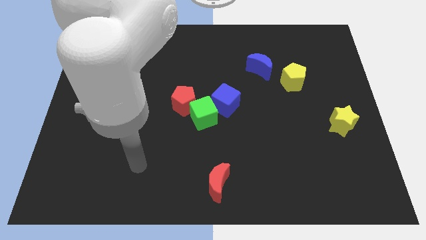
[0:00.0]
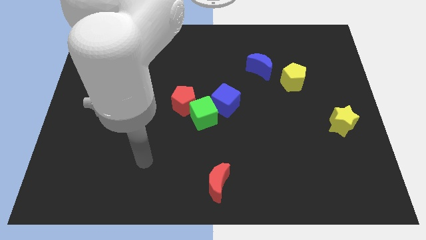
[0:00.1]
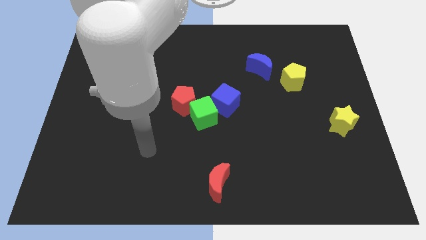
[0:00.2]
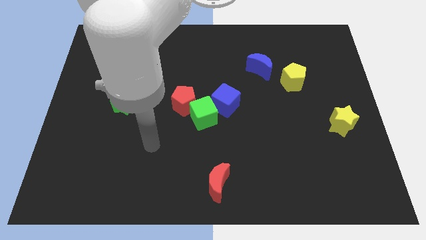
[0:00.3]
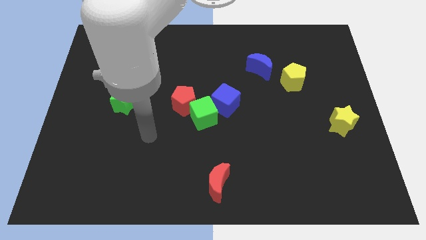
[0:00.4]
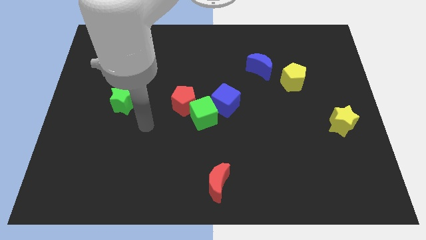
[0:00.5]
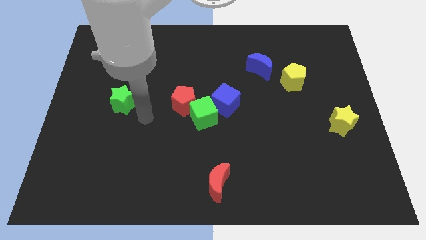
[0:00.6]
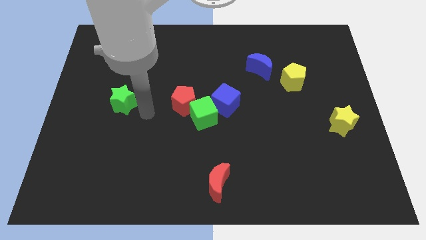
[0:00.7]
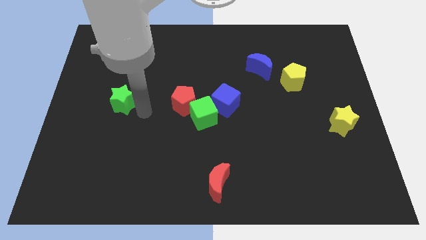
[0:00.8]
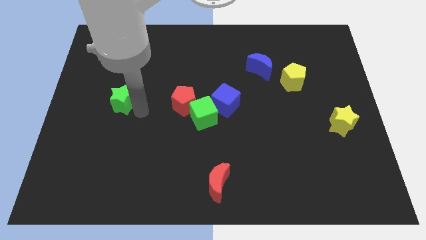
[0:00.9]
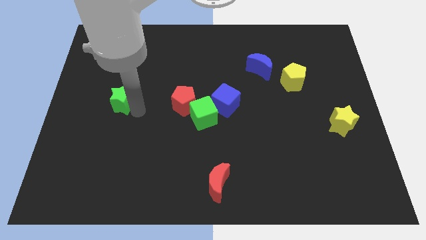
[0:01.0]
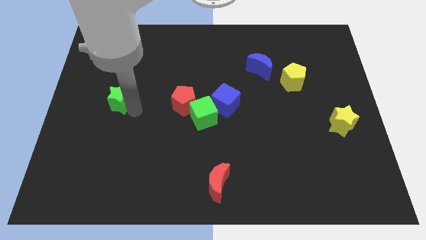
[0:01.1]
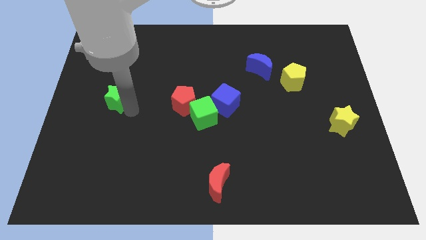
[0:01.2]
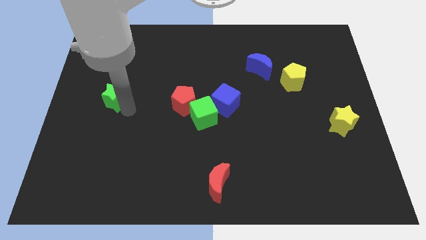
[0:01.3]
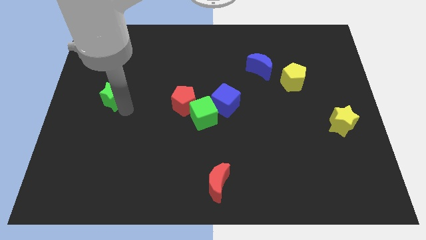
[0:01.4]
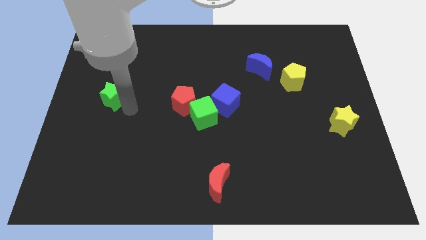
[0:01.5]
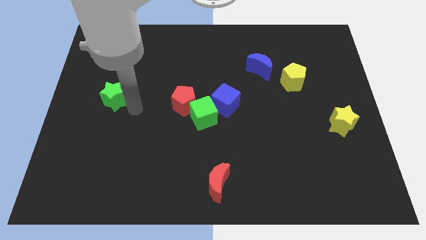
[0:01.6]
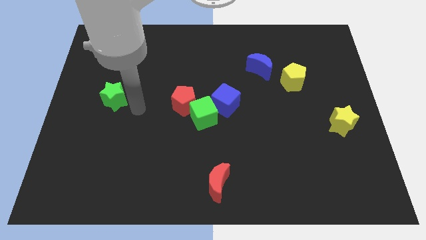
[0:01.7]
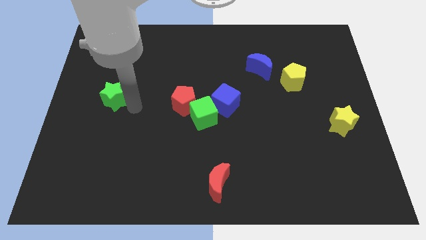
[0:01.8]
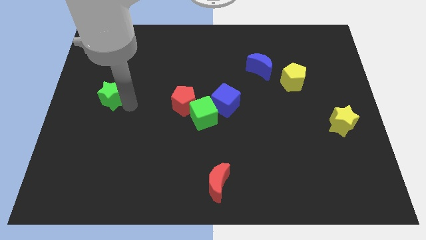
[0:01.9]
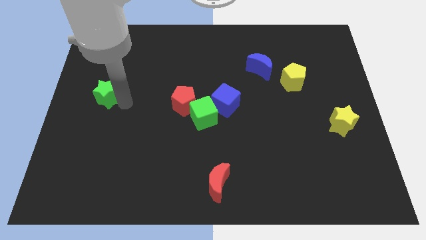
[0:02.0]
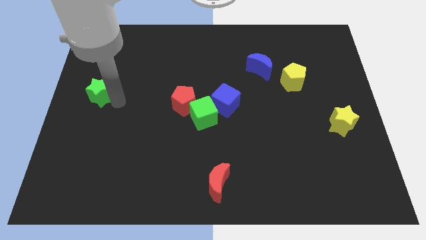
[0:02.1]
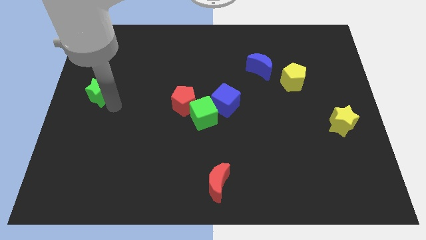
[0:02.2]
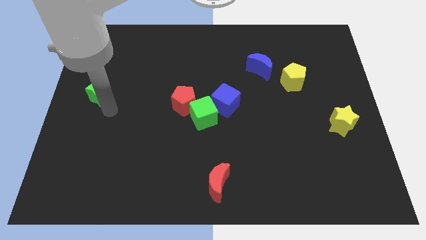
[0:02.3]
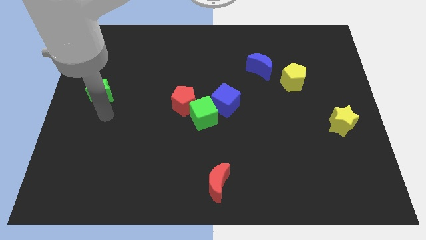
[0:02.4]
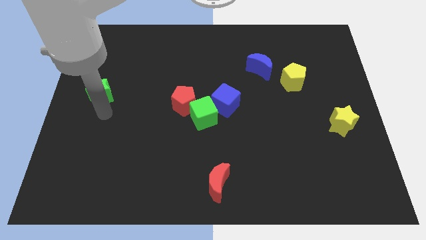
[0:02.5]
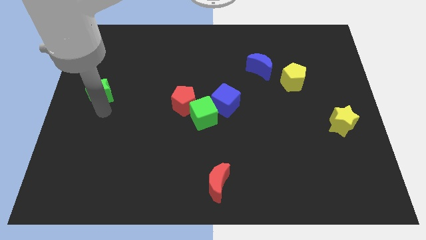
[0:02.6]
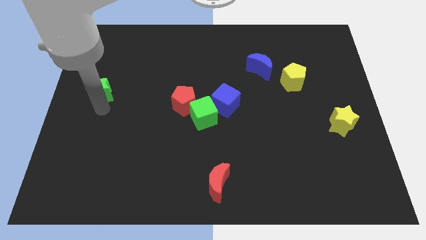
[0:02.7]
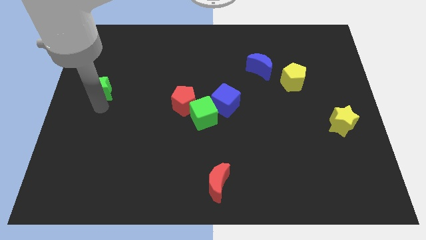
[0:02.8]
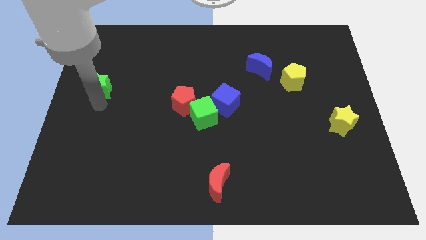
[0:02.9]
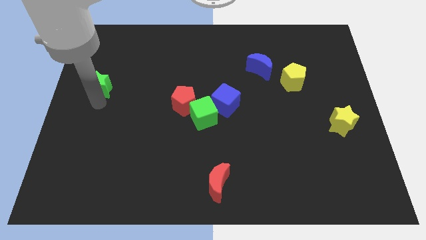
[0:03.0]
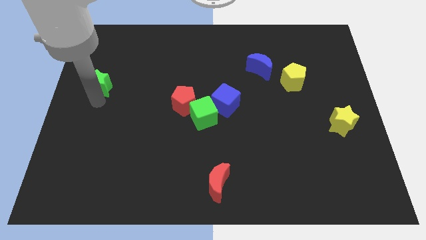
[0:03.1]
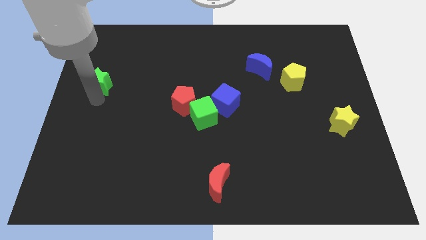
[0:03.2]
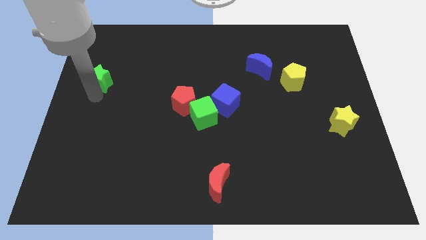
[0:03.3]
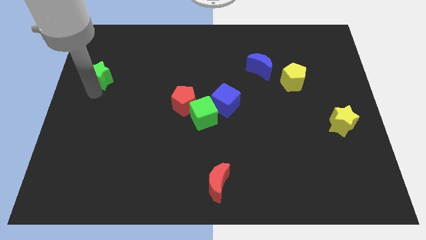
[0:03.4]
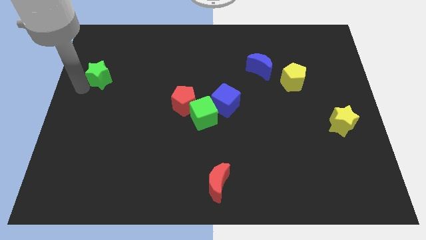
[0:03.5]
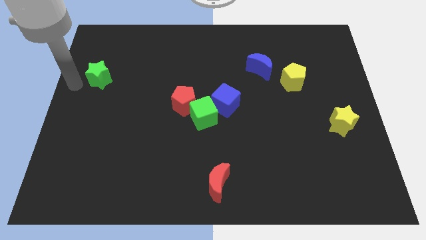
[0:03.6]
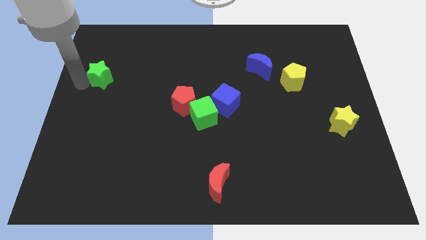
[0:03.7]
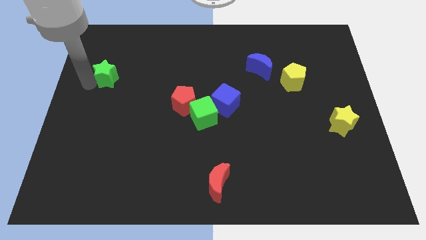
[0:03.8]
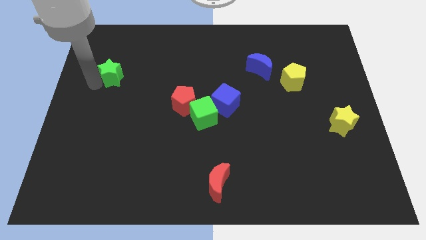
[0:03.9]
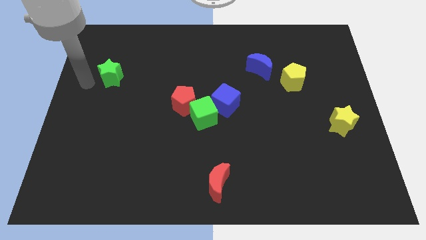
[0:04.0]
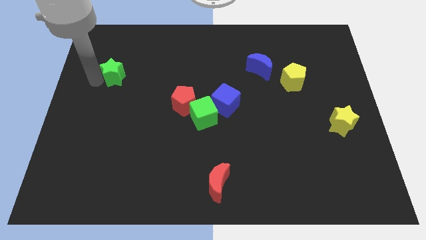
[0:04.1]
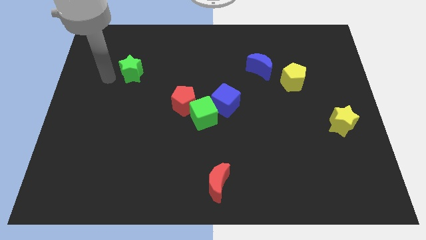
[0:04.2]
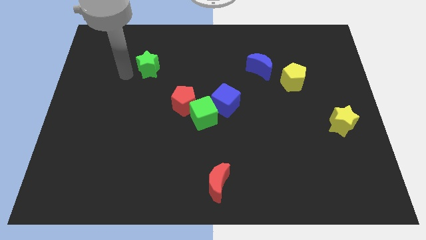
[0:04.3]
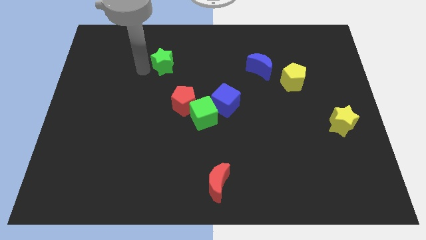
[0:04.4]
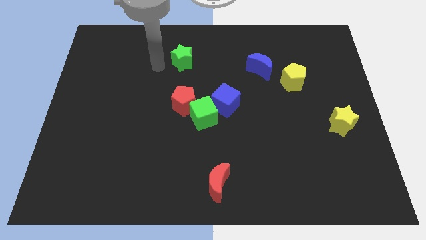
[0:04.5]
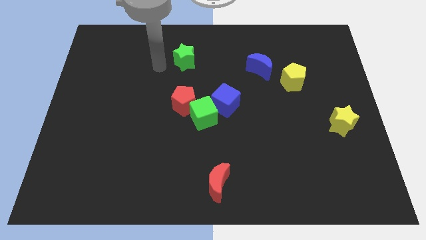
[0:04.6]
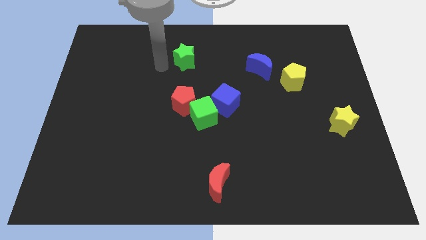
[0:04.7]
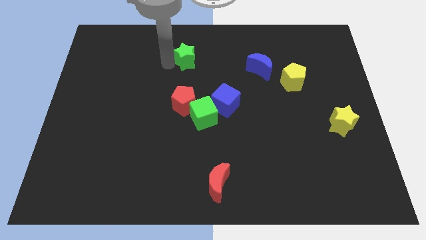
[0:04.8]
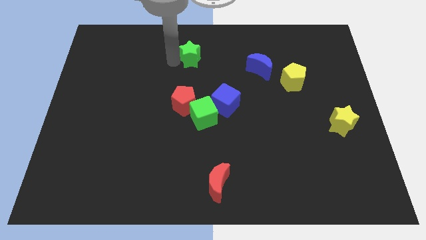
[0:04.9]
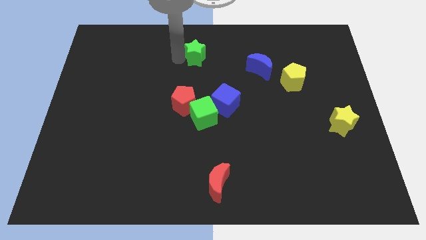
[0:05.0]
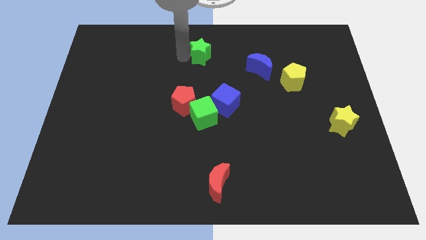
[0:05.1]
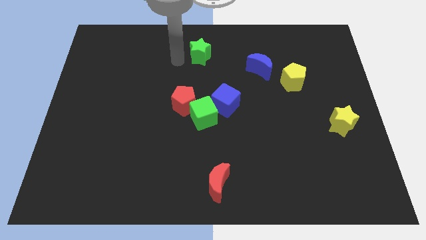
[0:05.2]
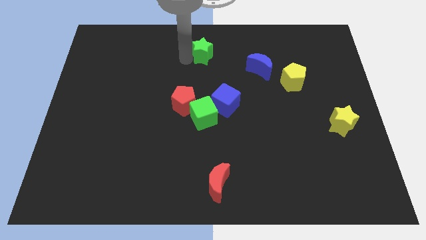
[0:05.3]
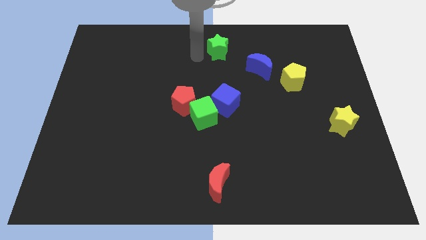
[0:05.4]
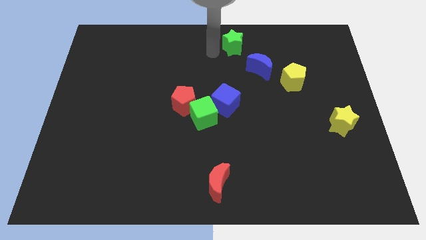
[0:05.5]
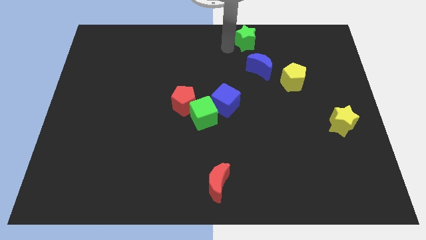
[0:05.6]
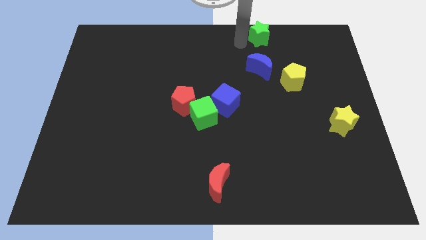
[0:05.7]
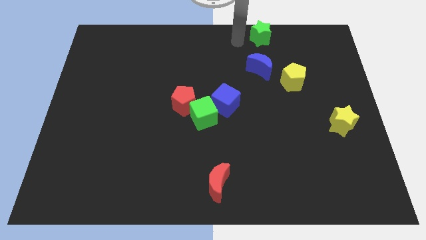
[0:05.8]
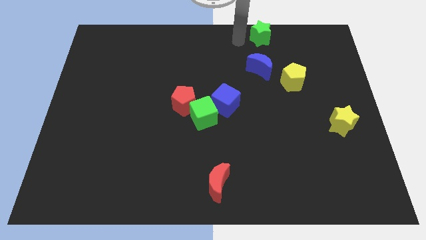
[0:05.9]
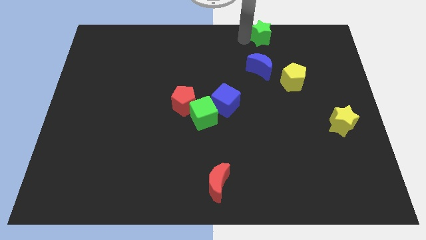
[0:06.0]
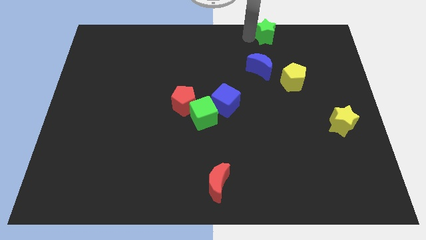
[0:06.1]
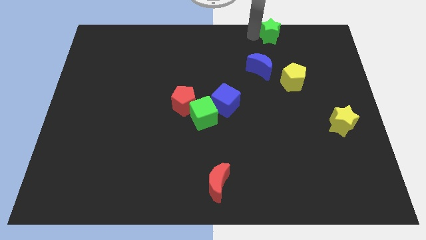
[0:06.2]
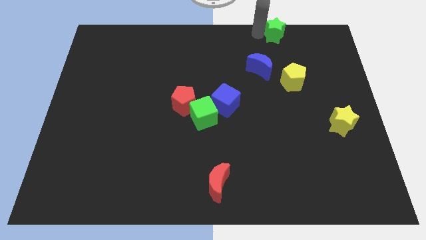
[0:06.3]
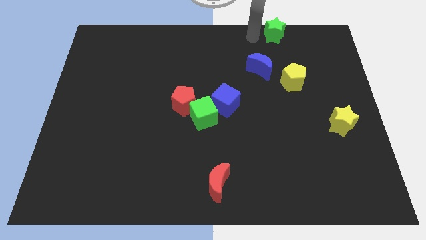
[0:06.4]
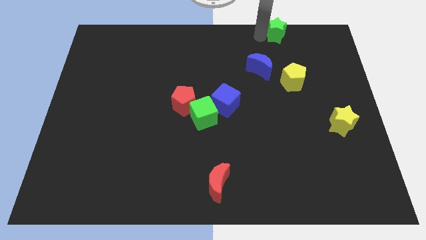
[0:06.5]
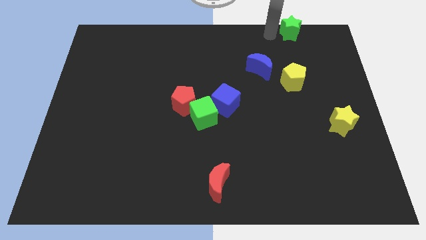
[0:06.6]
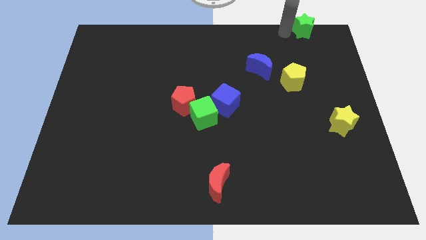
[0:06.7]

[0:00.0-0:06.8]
move the green star to the top right
